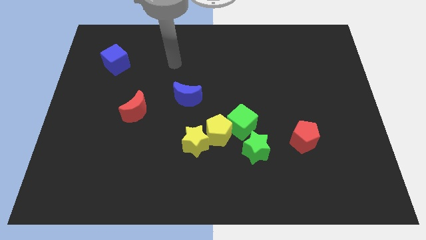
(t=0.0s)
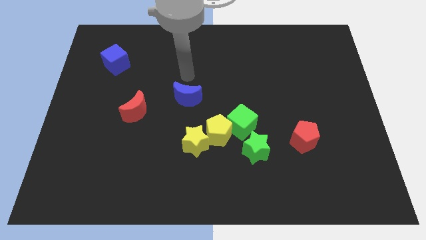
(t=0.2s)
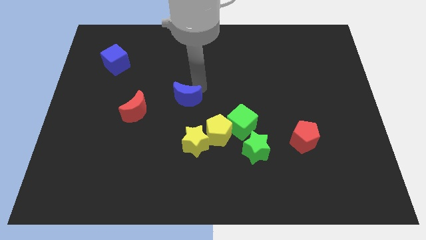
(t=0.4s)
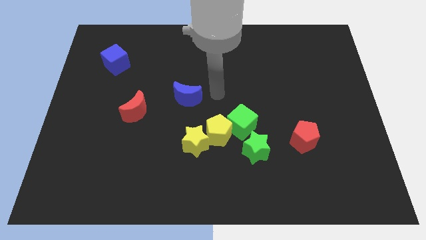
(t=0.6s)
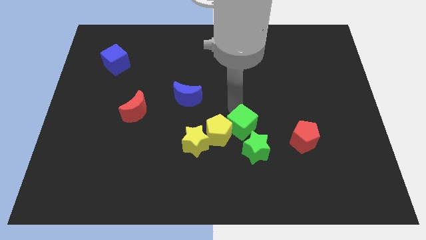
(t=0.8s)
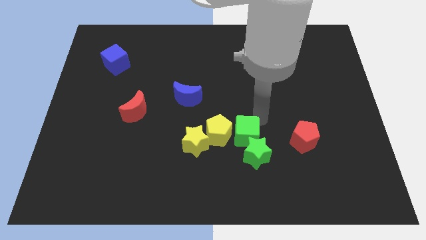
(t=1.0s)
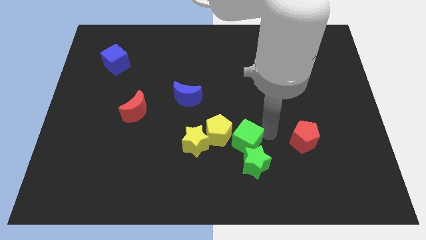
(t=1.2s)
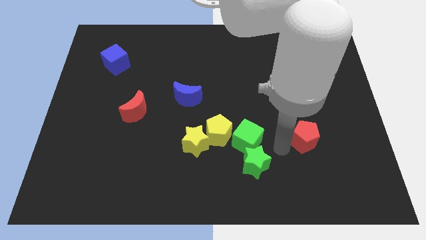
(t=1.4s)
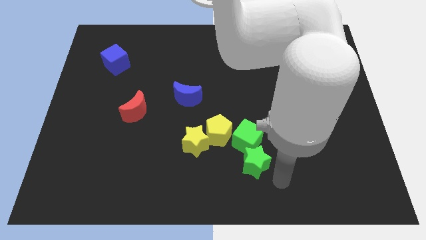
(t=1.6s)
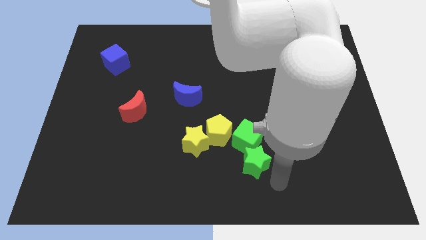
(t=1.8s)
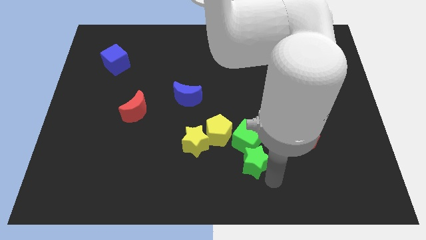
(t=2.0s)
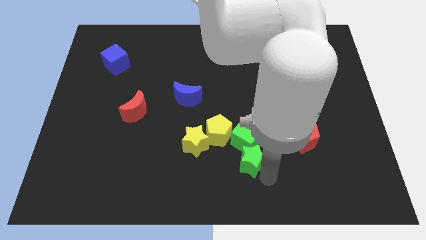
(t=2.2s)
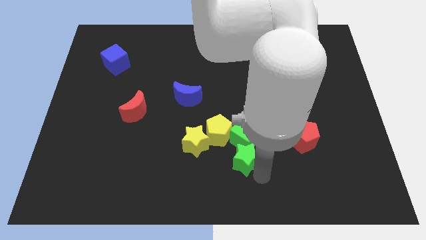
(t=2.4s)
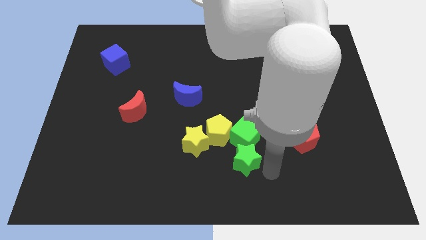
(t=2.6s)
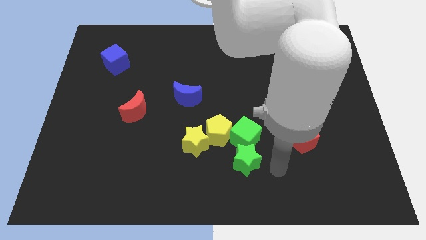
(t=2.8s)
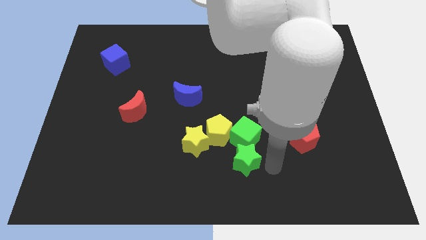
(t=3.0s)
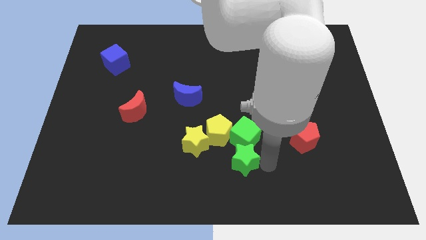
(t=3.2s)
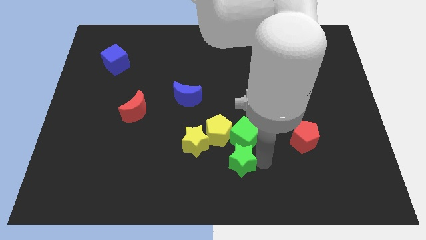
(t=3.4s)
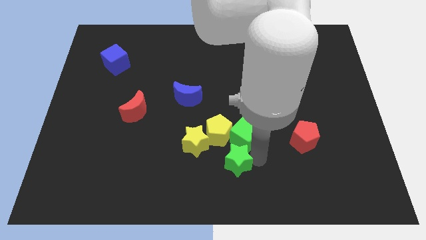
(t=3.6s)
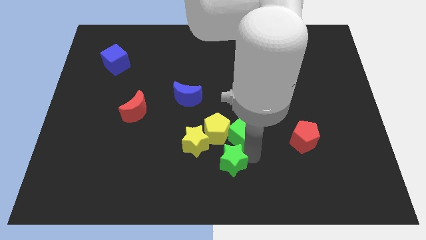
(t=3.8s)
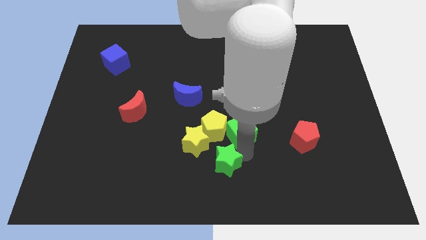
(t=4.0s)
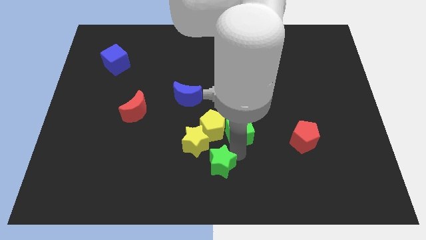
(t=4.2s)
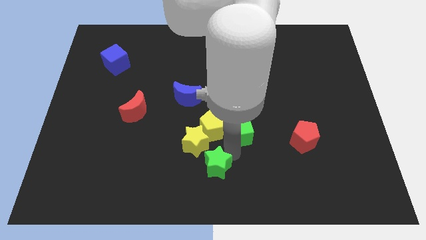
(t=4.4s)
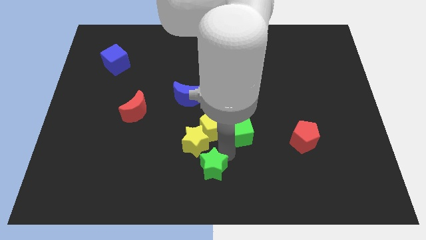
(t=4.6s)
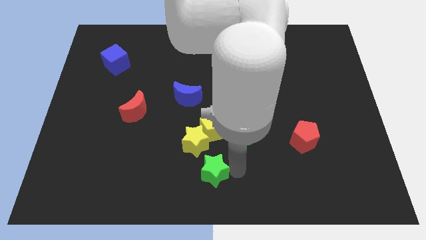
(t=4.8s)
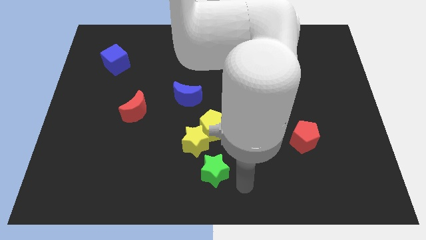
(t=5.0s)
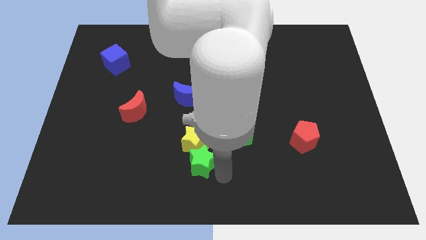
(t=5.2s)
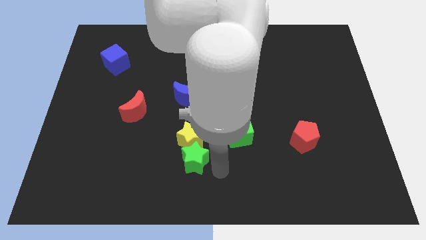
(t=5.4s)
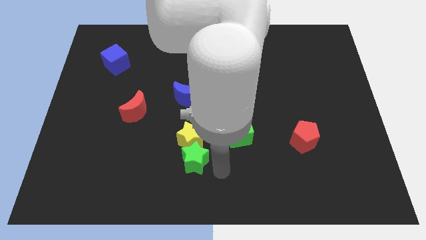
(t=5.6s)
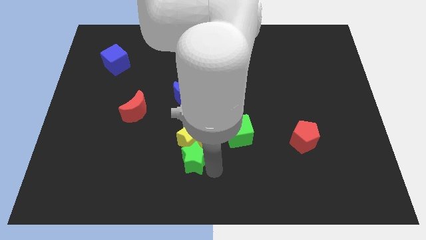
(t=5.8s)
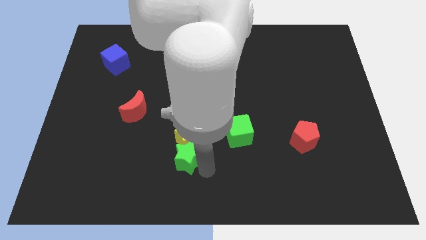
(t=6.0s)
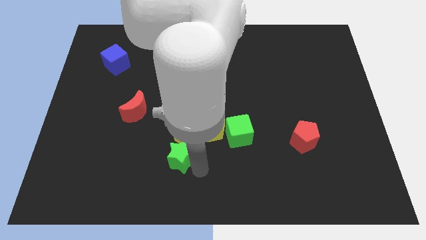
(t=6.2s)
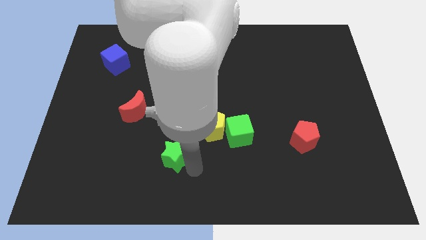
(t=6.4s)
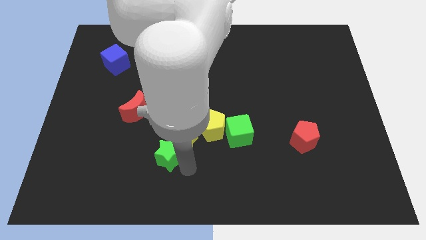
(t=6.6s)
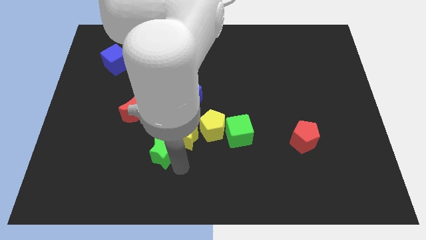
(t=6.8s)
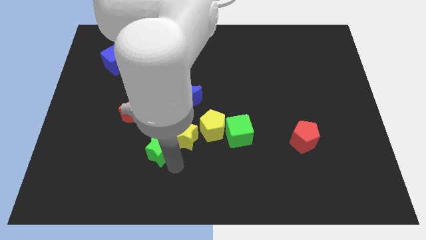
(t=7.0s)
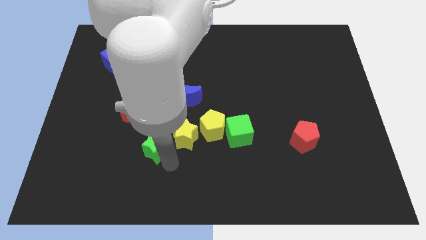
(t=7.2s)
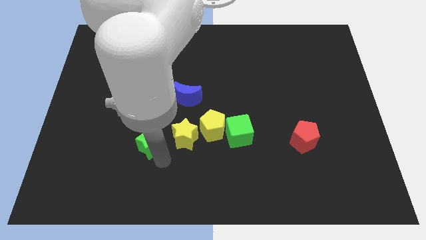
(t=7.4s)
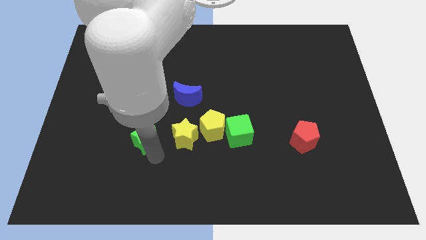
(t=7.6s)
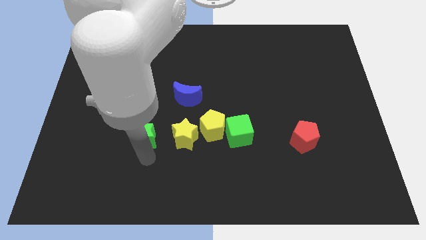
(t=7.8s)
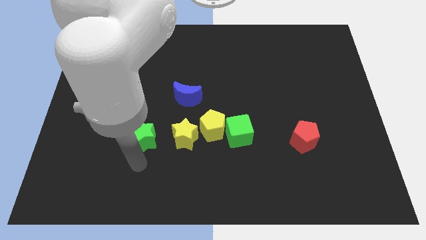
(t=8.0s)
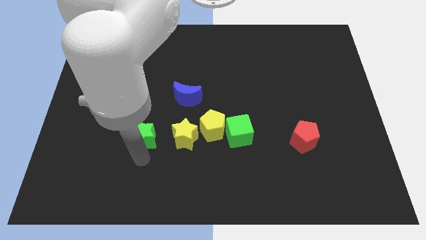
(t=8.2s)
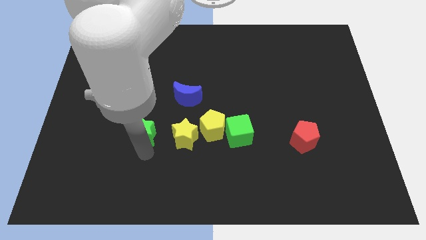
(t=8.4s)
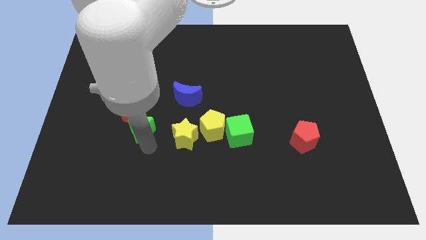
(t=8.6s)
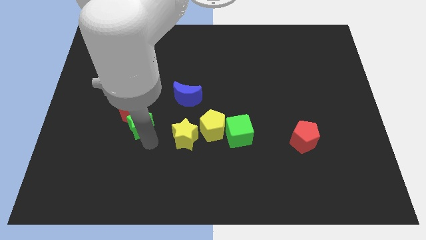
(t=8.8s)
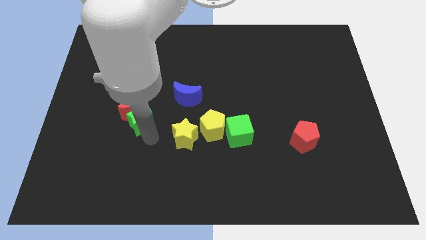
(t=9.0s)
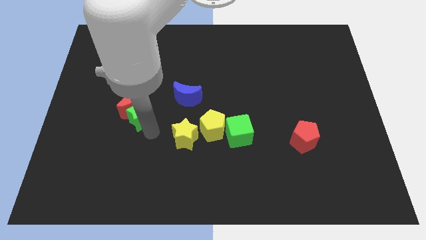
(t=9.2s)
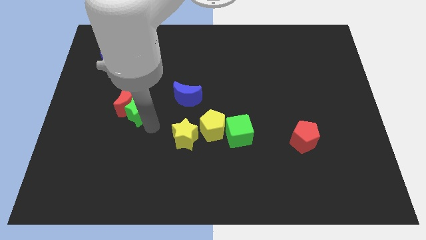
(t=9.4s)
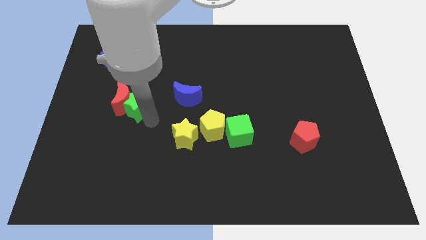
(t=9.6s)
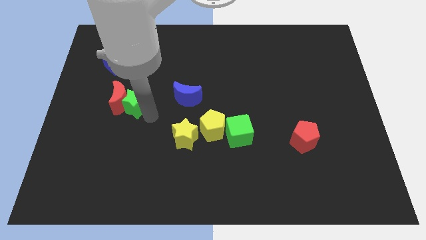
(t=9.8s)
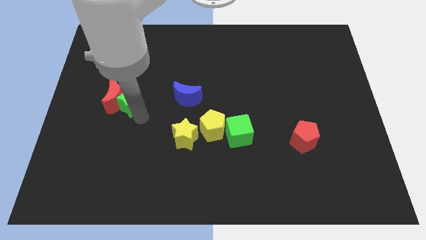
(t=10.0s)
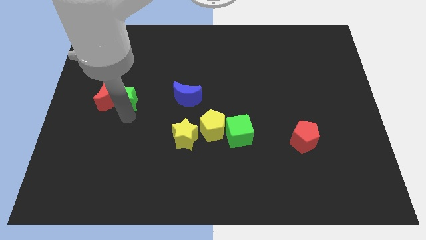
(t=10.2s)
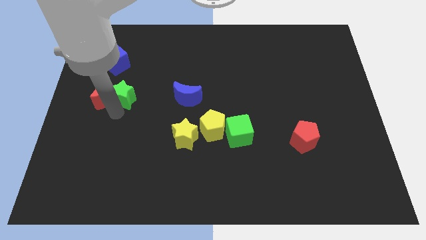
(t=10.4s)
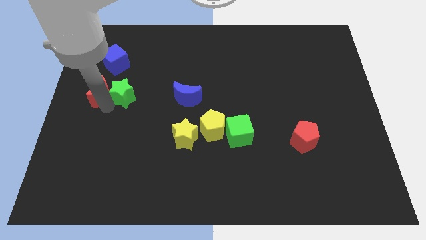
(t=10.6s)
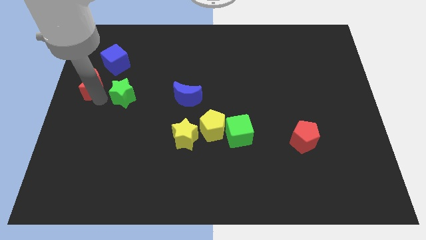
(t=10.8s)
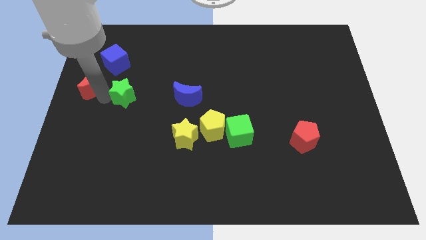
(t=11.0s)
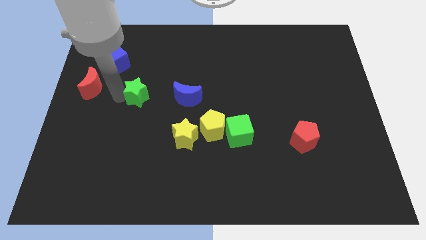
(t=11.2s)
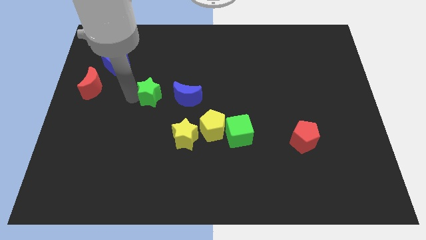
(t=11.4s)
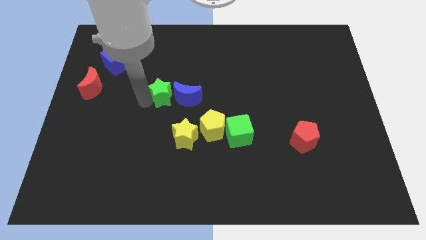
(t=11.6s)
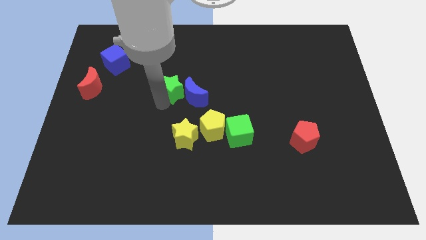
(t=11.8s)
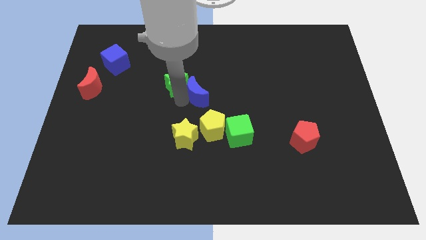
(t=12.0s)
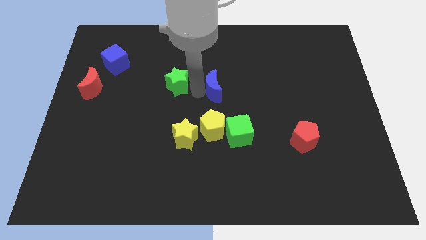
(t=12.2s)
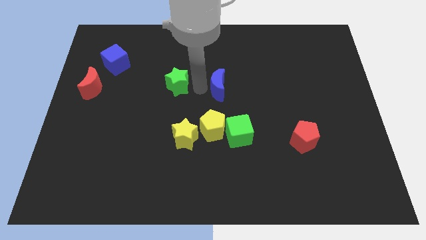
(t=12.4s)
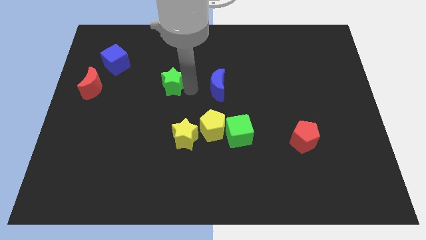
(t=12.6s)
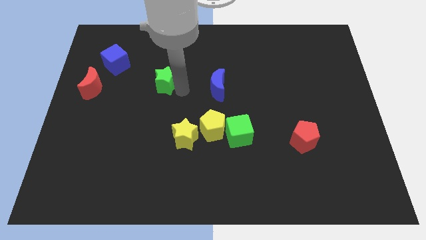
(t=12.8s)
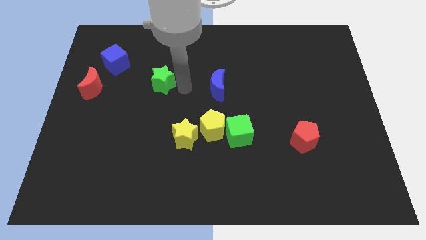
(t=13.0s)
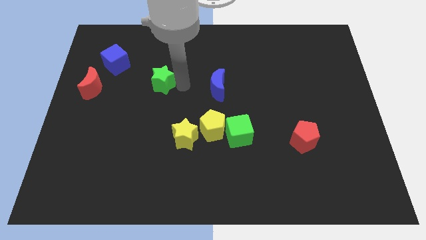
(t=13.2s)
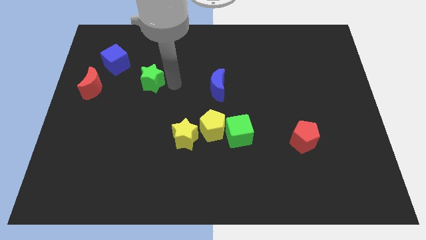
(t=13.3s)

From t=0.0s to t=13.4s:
put the green star to the bottom right side of the blue cube

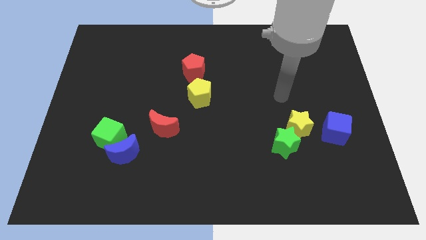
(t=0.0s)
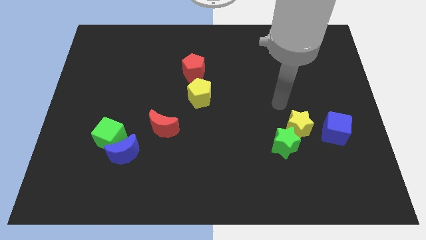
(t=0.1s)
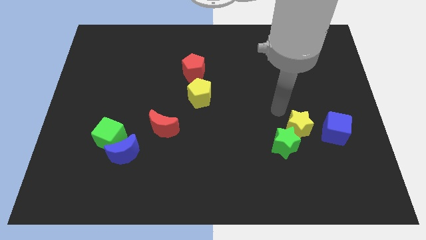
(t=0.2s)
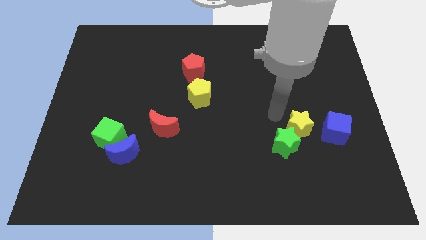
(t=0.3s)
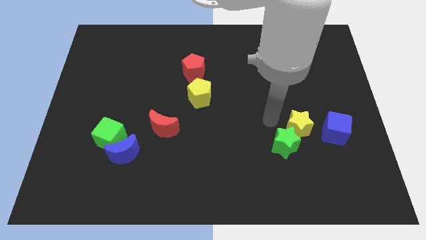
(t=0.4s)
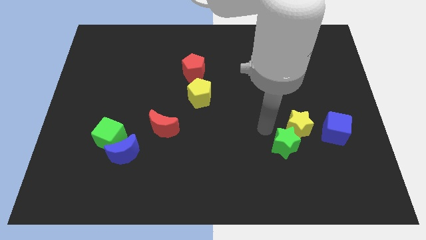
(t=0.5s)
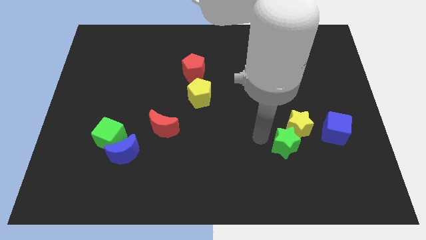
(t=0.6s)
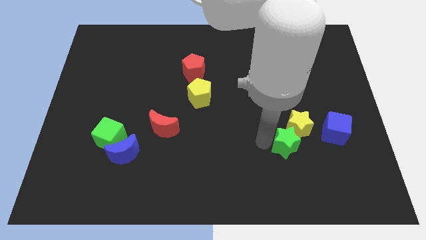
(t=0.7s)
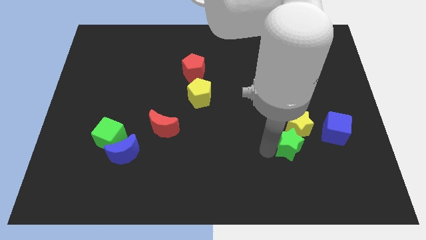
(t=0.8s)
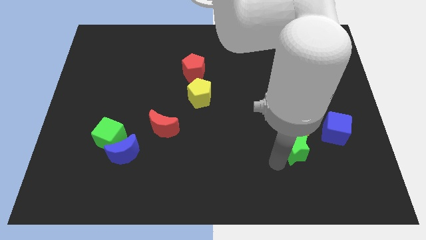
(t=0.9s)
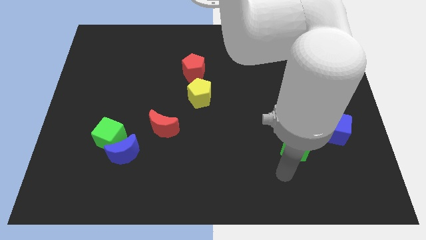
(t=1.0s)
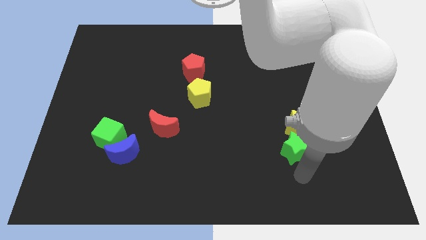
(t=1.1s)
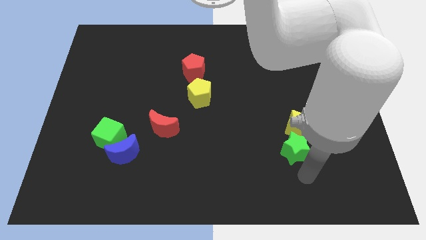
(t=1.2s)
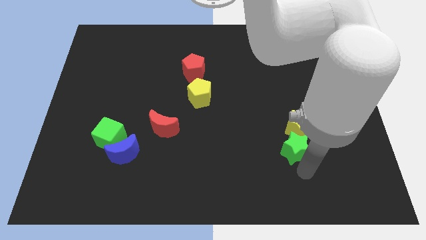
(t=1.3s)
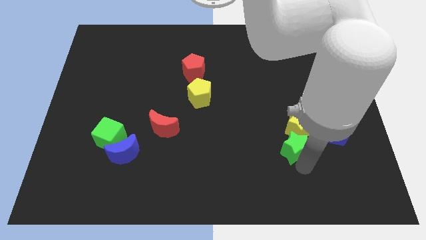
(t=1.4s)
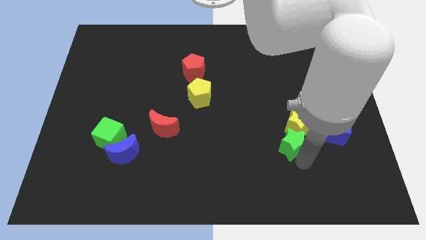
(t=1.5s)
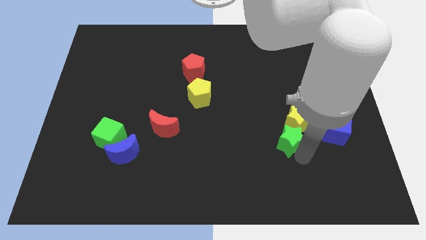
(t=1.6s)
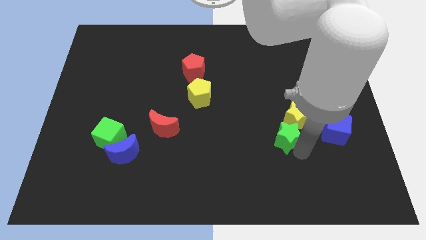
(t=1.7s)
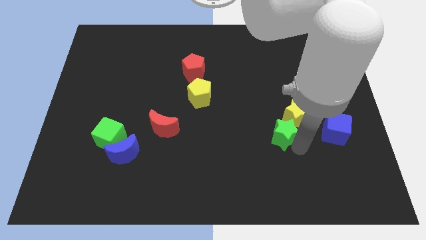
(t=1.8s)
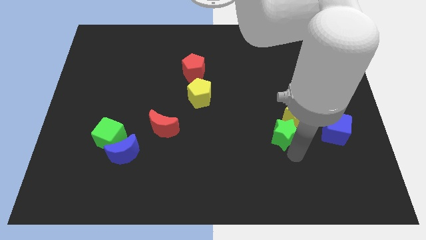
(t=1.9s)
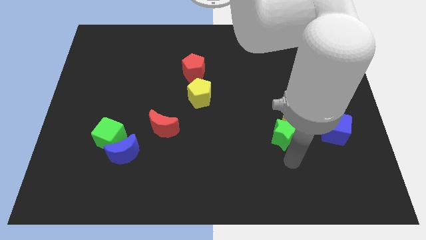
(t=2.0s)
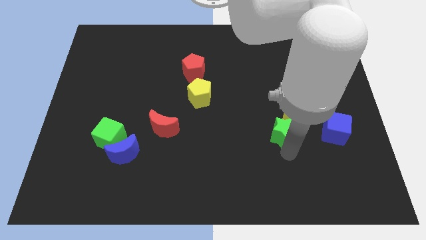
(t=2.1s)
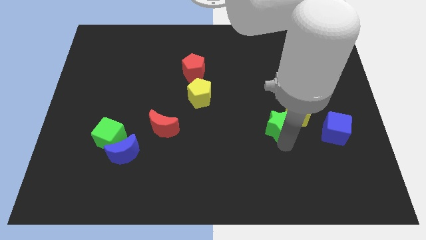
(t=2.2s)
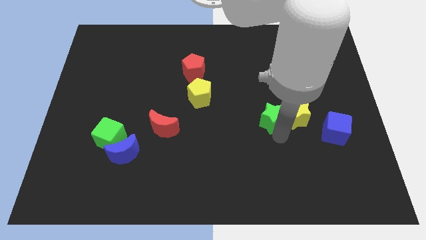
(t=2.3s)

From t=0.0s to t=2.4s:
put the green star to the top left side of the yellow star
